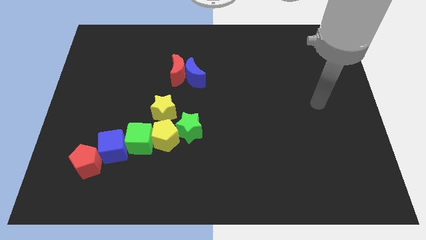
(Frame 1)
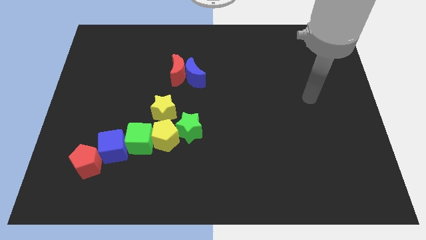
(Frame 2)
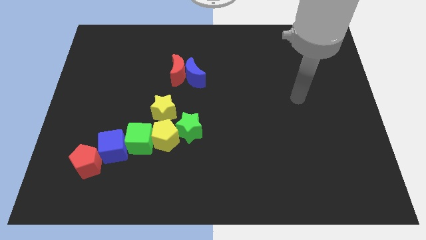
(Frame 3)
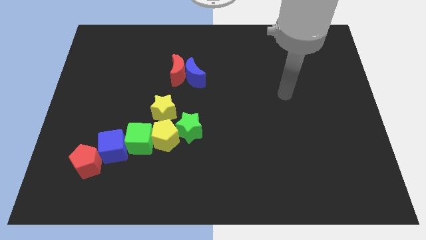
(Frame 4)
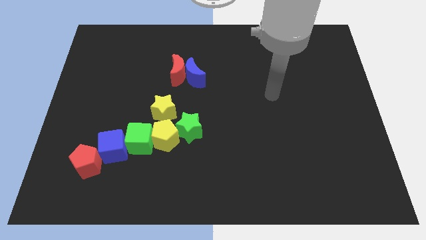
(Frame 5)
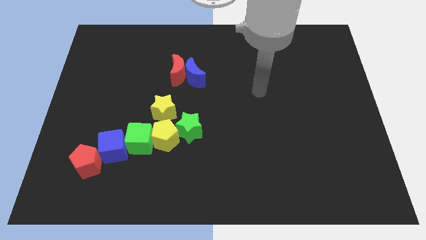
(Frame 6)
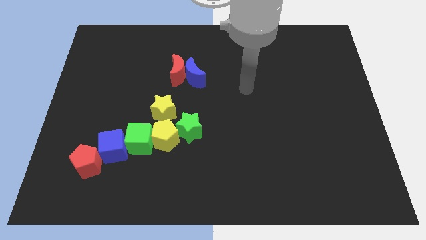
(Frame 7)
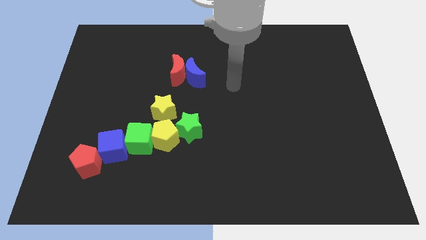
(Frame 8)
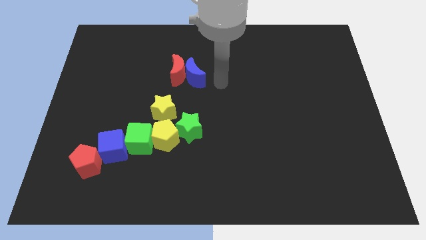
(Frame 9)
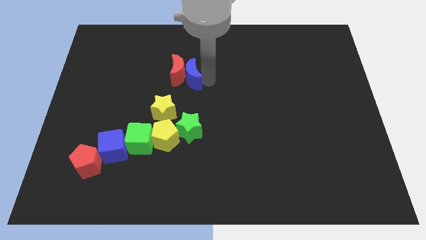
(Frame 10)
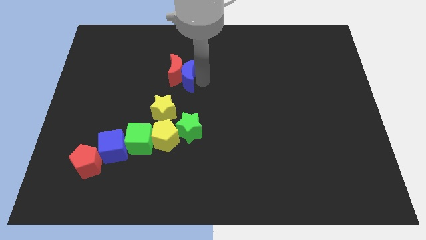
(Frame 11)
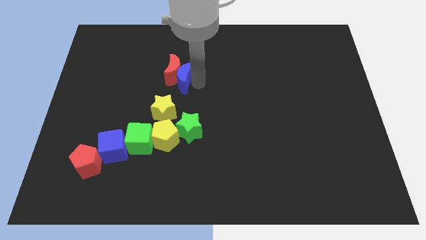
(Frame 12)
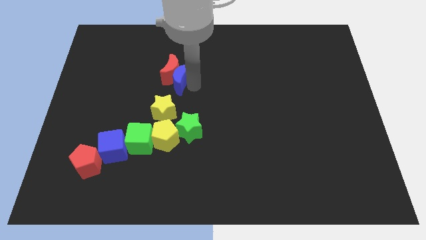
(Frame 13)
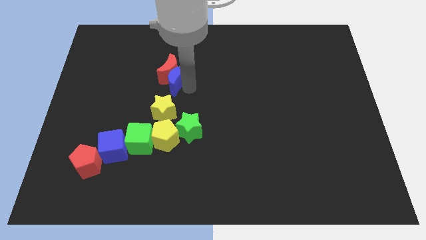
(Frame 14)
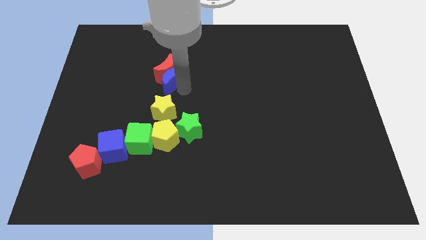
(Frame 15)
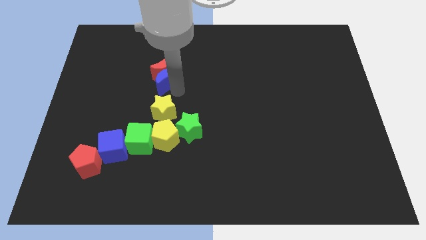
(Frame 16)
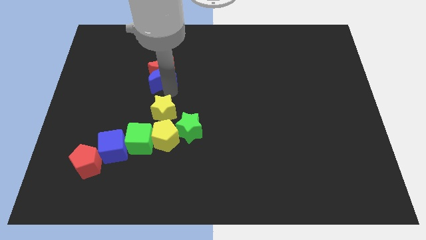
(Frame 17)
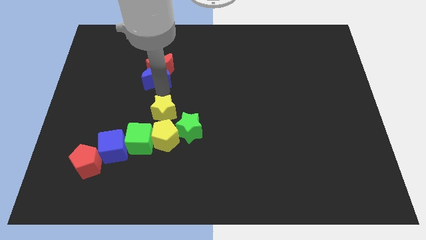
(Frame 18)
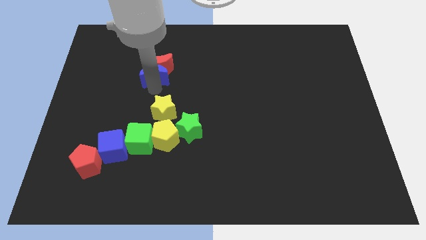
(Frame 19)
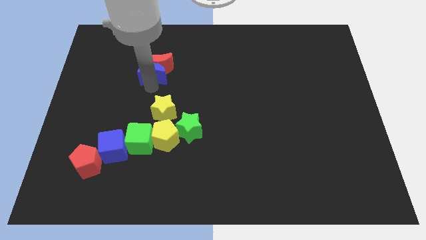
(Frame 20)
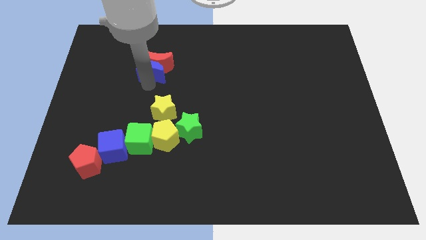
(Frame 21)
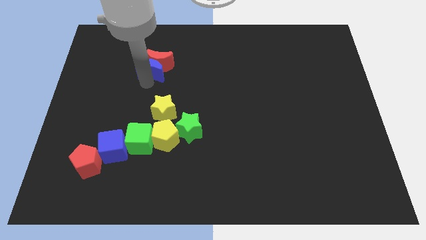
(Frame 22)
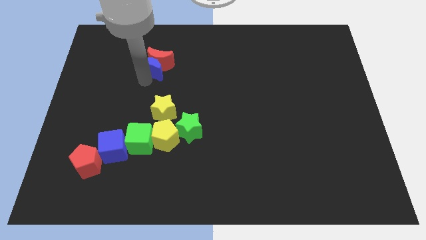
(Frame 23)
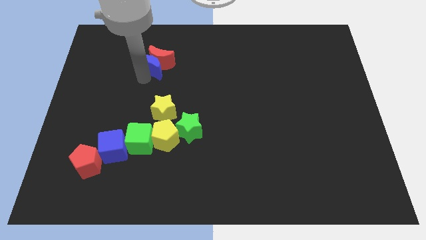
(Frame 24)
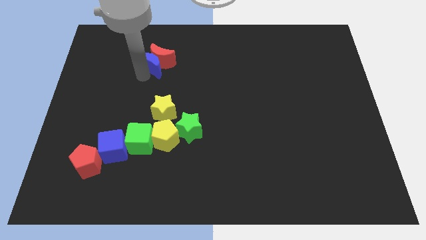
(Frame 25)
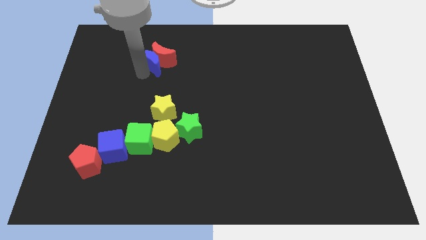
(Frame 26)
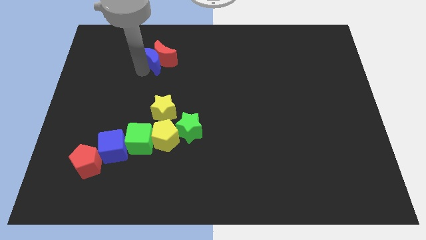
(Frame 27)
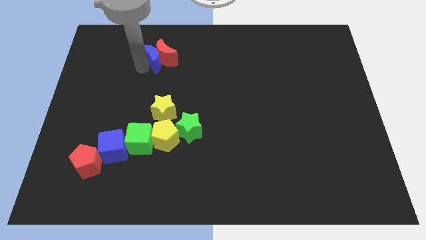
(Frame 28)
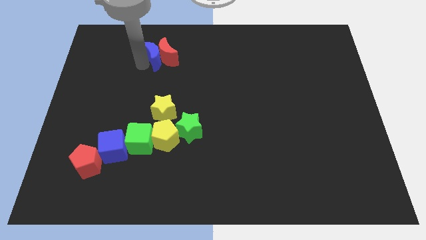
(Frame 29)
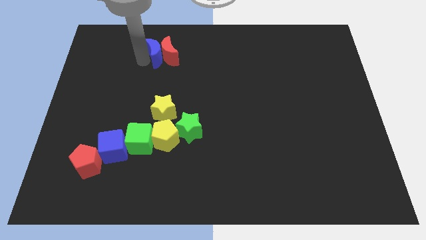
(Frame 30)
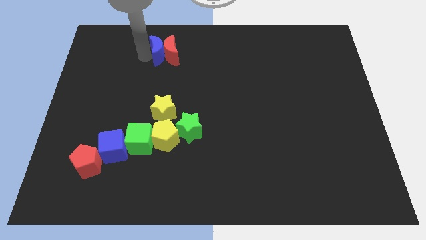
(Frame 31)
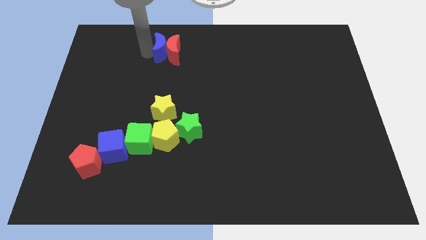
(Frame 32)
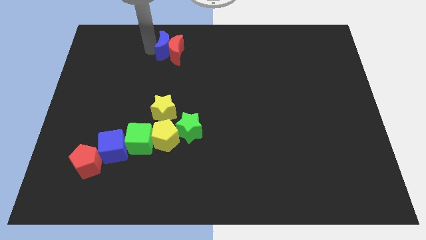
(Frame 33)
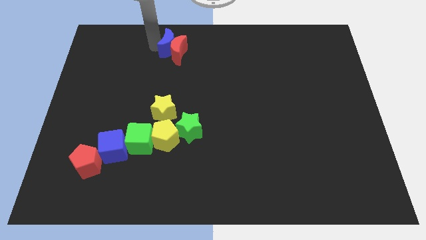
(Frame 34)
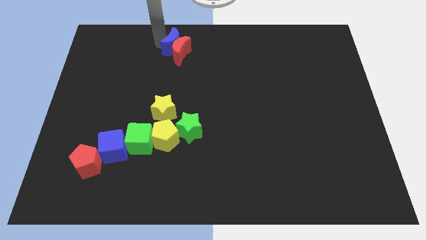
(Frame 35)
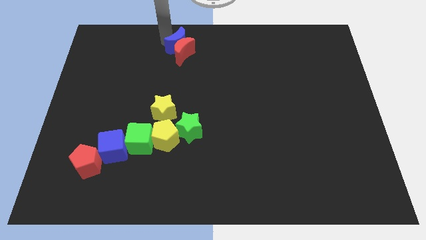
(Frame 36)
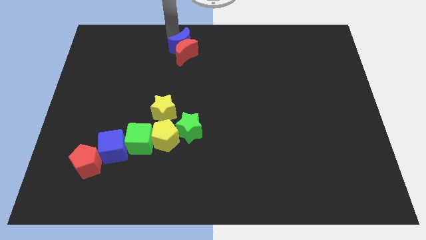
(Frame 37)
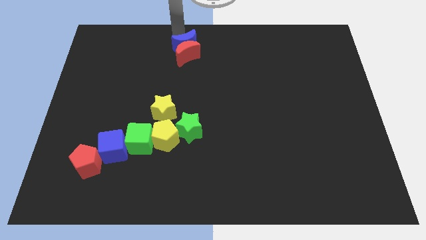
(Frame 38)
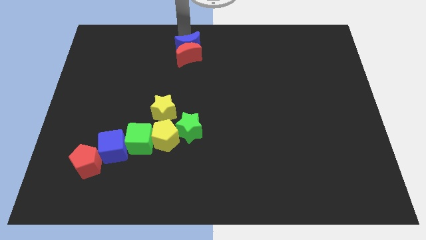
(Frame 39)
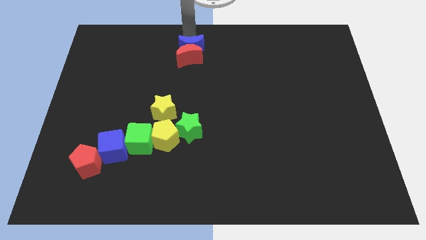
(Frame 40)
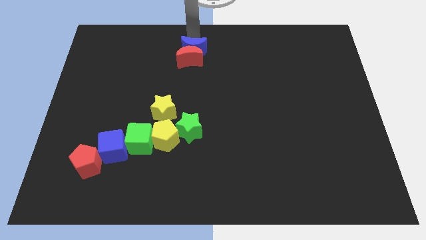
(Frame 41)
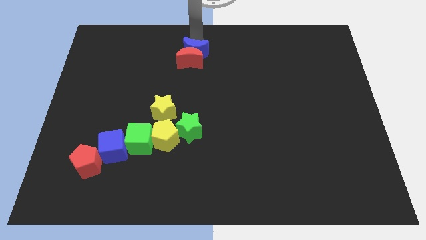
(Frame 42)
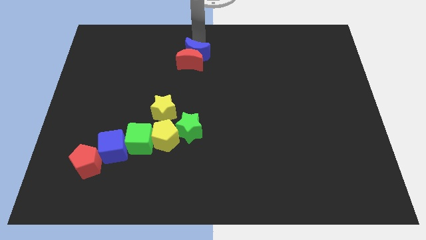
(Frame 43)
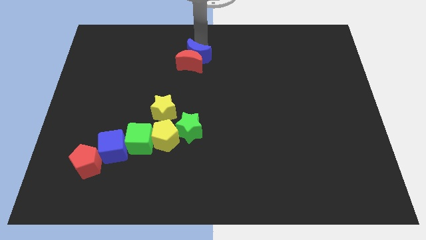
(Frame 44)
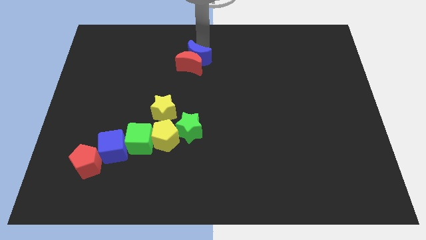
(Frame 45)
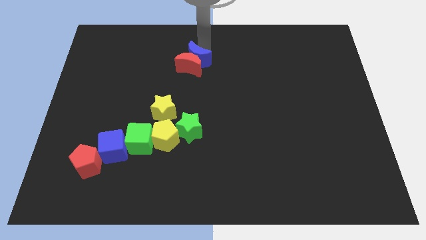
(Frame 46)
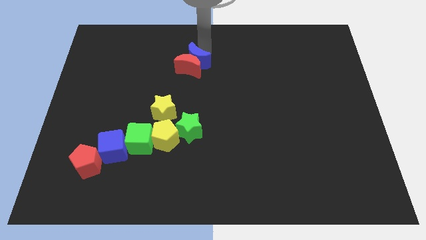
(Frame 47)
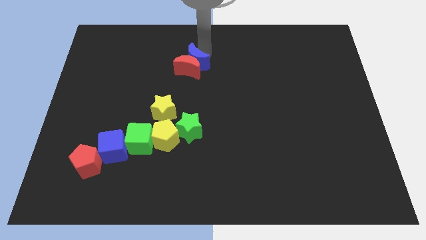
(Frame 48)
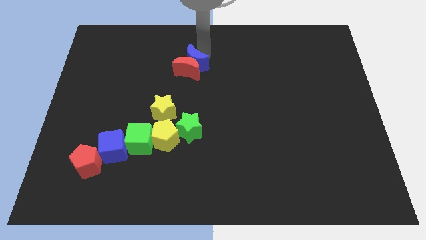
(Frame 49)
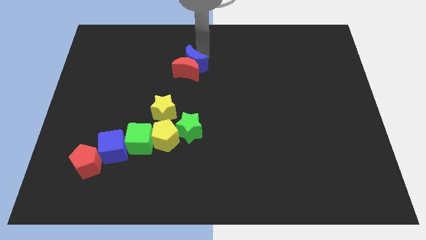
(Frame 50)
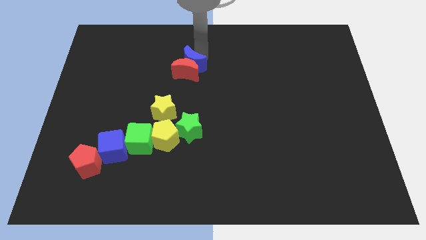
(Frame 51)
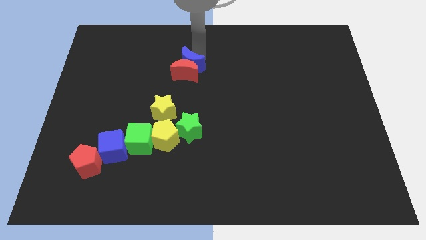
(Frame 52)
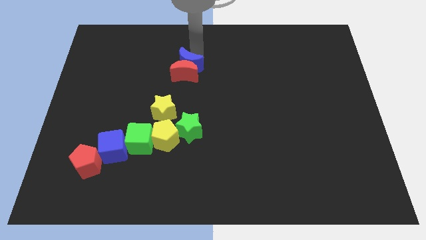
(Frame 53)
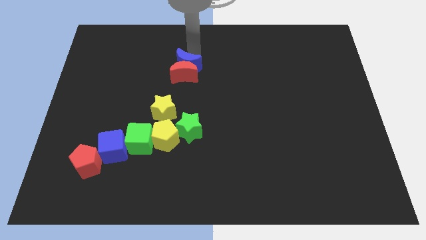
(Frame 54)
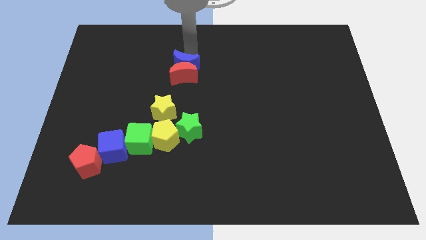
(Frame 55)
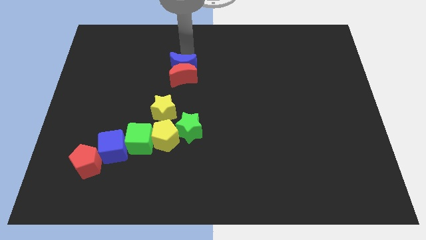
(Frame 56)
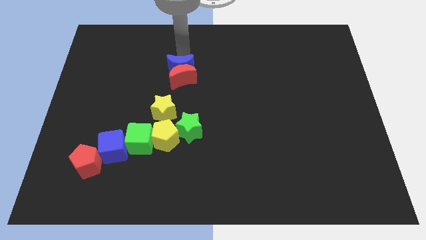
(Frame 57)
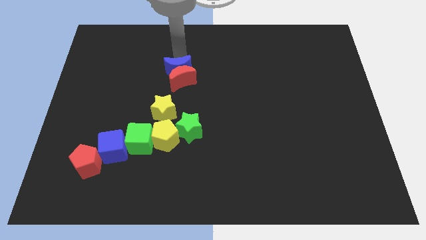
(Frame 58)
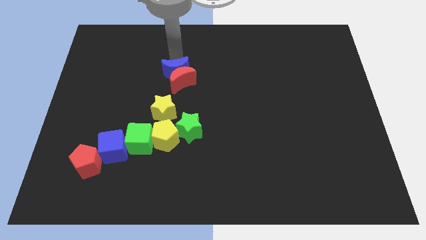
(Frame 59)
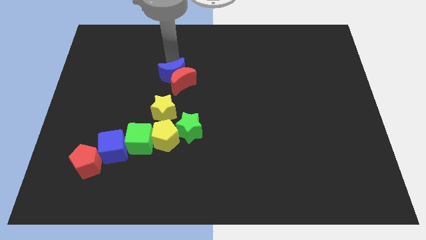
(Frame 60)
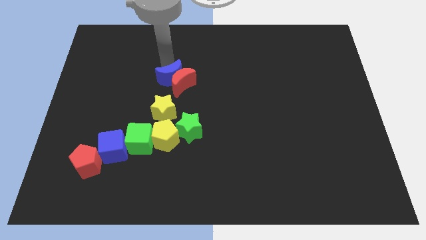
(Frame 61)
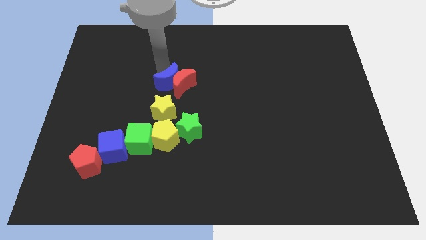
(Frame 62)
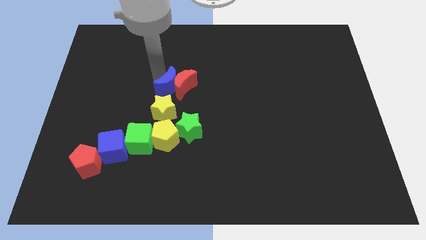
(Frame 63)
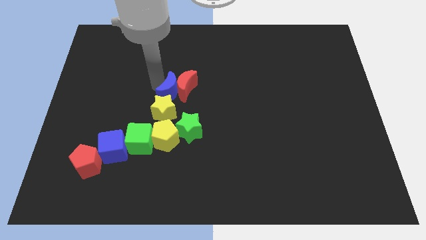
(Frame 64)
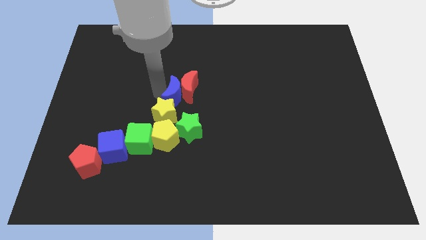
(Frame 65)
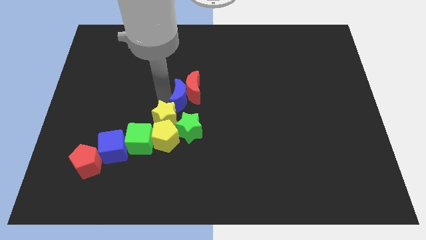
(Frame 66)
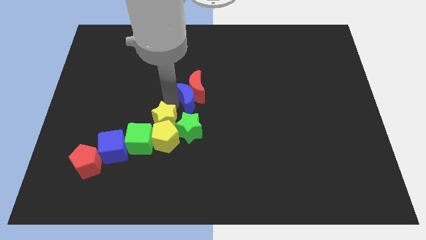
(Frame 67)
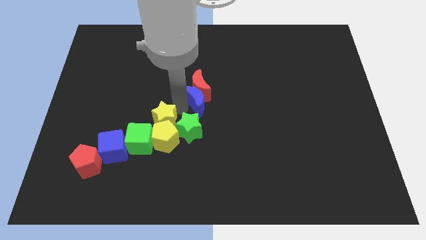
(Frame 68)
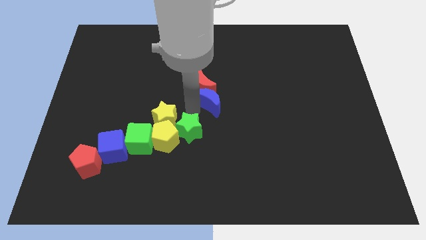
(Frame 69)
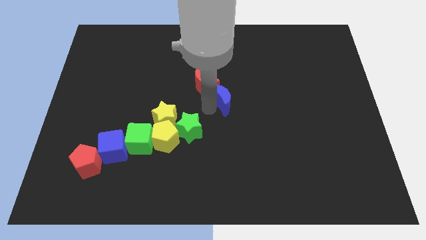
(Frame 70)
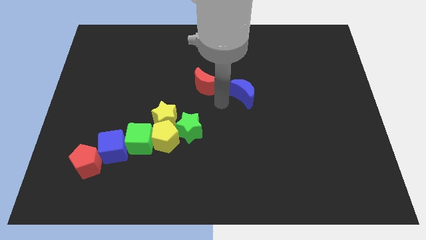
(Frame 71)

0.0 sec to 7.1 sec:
separate the red moon from the blue moon

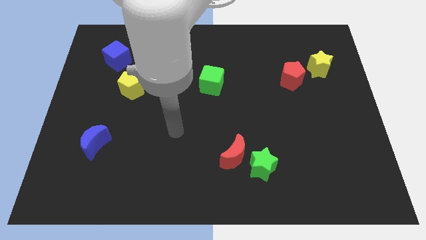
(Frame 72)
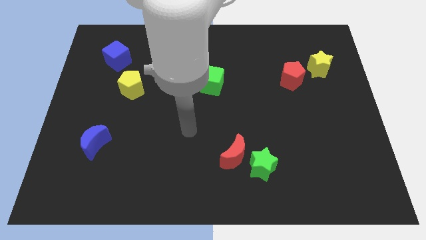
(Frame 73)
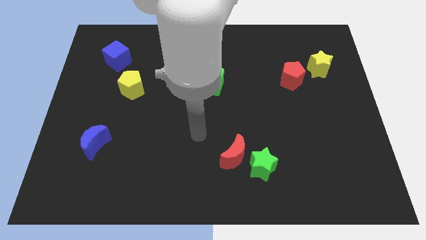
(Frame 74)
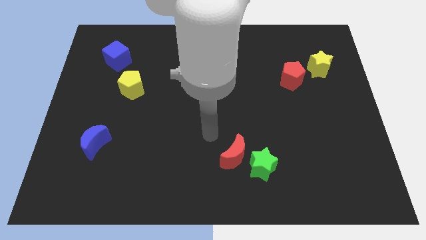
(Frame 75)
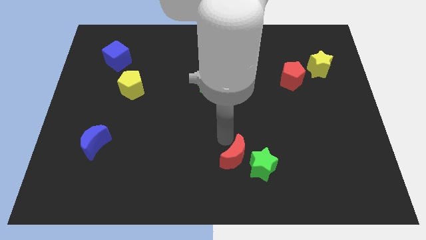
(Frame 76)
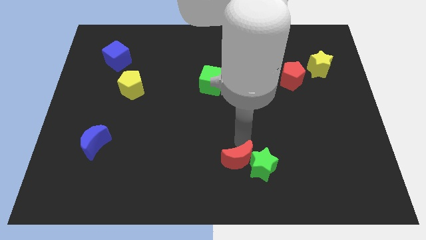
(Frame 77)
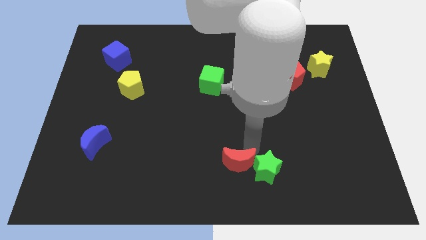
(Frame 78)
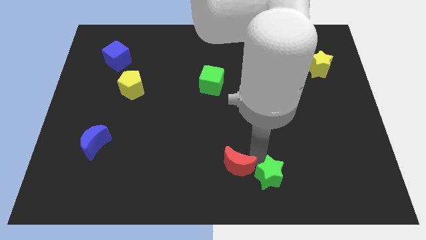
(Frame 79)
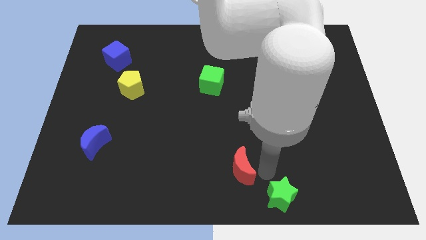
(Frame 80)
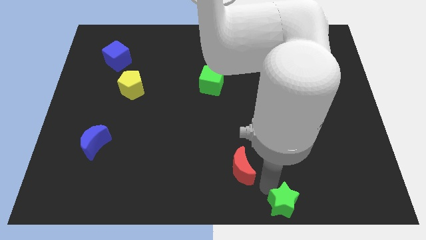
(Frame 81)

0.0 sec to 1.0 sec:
pull the red moon apart from the green star

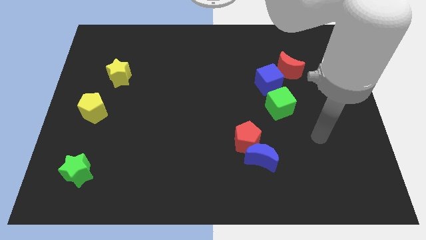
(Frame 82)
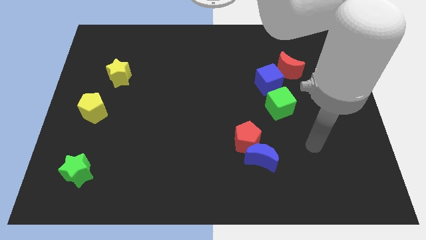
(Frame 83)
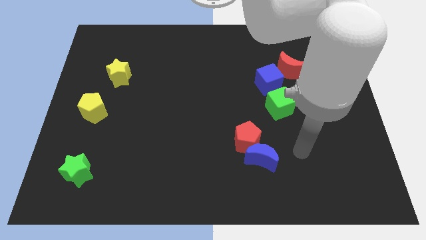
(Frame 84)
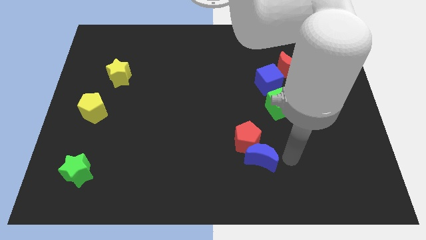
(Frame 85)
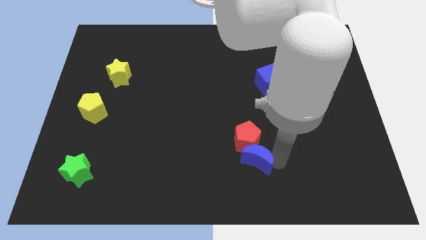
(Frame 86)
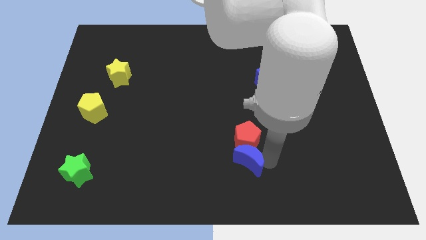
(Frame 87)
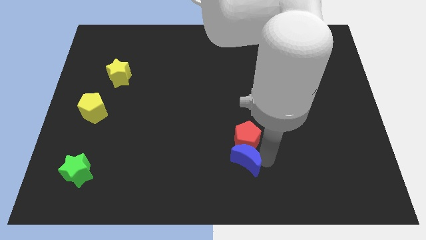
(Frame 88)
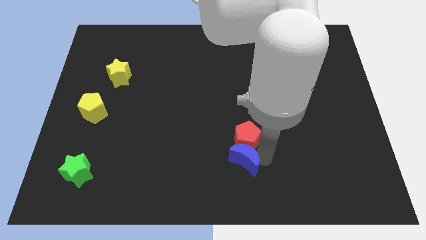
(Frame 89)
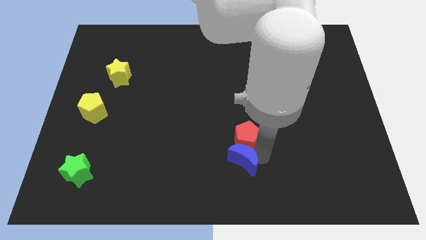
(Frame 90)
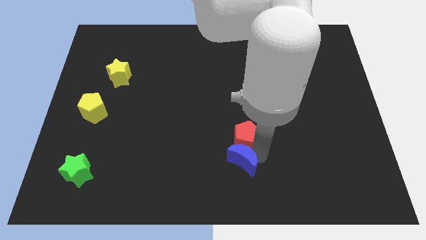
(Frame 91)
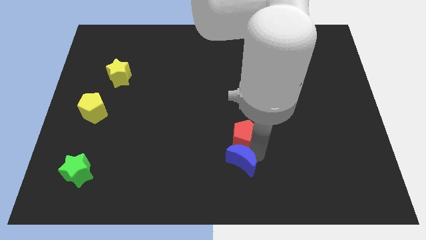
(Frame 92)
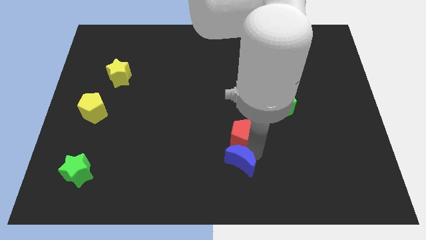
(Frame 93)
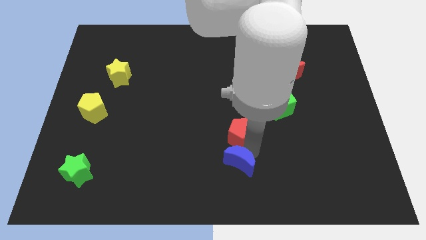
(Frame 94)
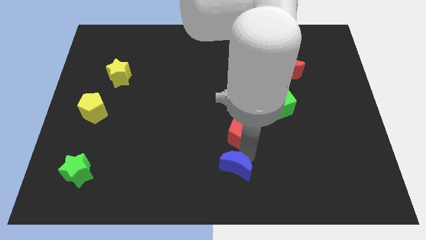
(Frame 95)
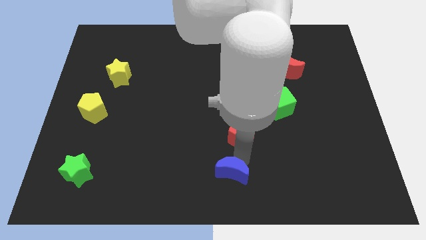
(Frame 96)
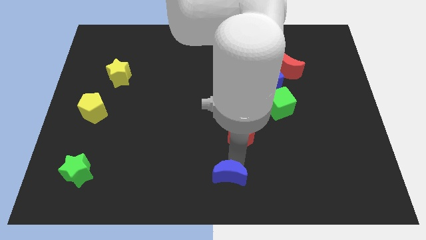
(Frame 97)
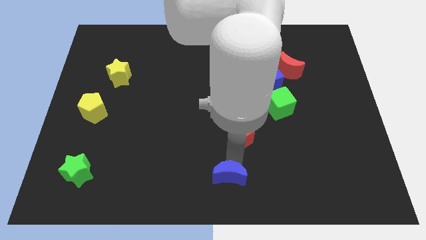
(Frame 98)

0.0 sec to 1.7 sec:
separate the red pentagon from the blue moon
